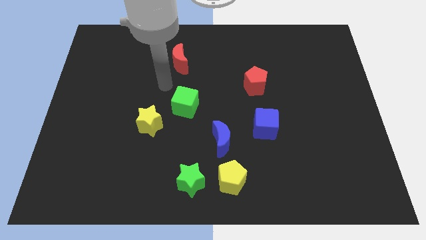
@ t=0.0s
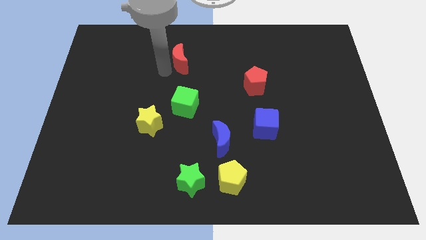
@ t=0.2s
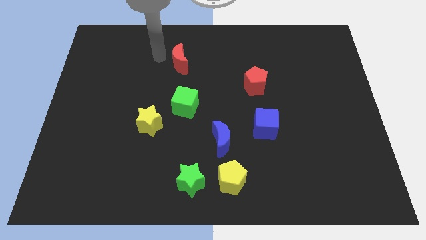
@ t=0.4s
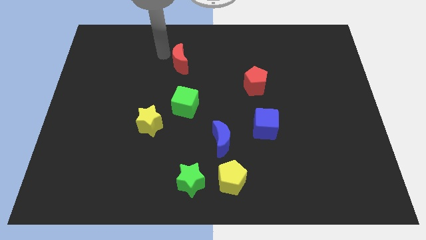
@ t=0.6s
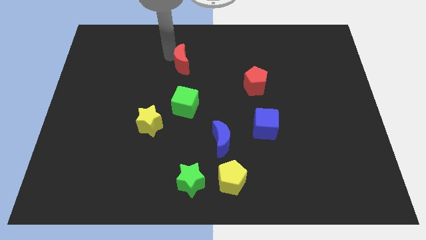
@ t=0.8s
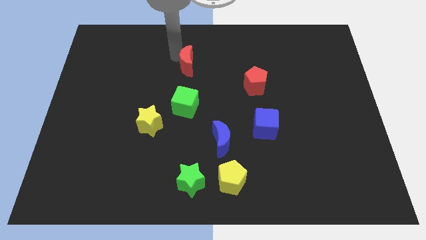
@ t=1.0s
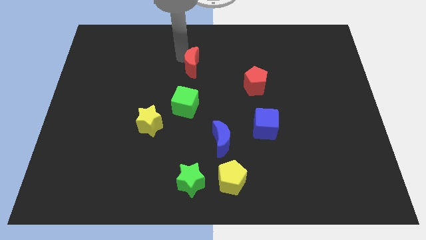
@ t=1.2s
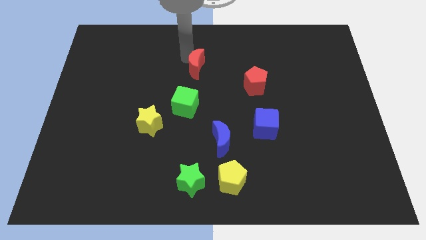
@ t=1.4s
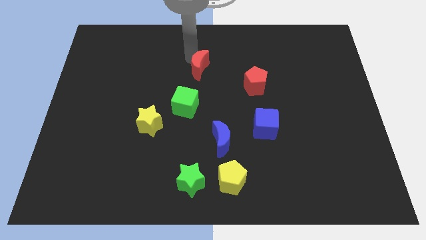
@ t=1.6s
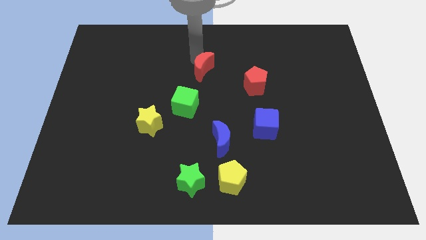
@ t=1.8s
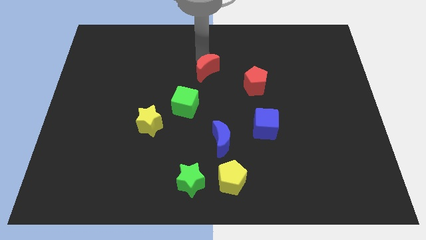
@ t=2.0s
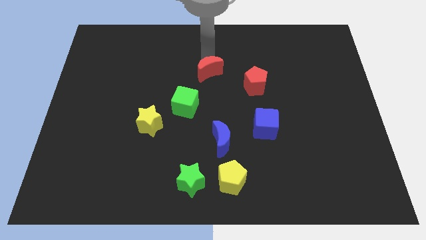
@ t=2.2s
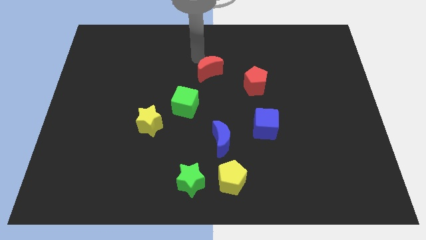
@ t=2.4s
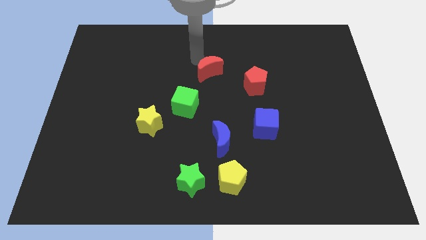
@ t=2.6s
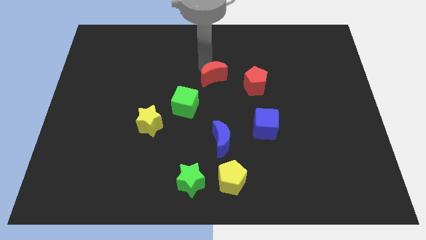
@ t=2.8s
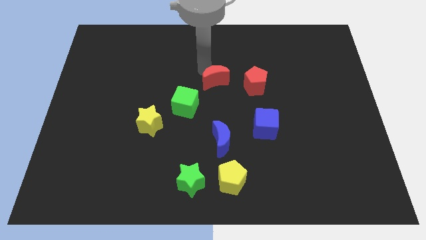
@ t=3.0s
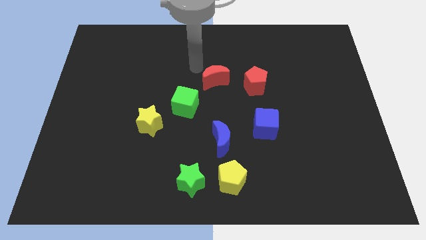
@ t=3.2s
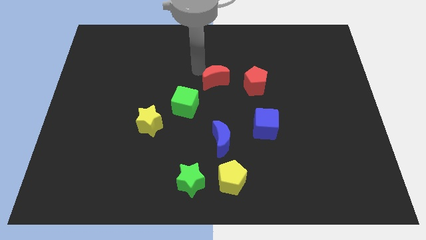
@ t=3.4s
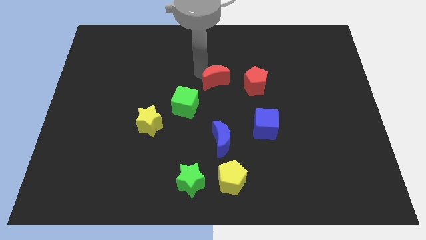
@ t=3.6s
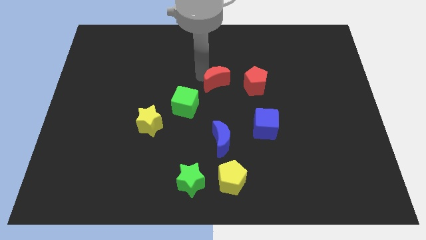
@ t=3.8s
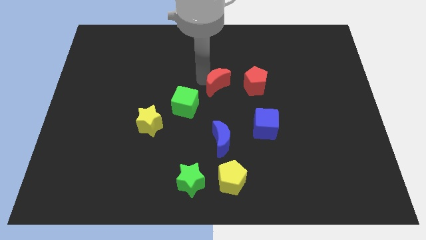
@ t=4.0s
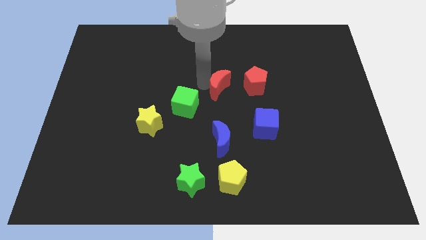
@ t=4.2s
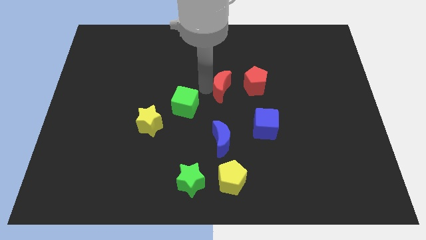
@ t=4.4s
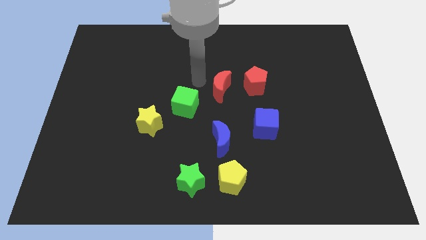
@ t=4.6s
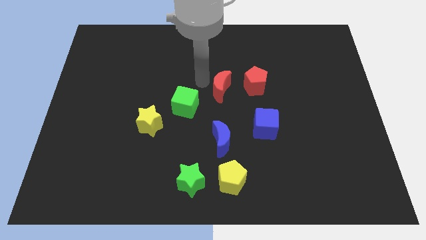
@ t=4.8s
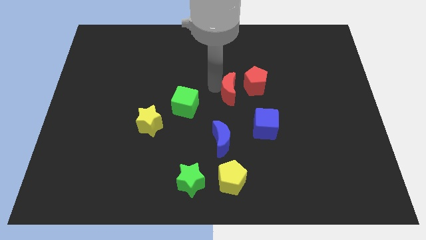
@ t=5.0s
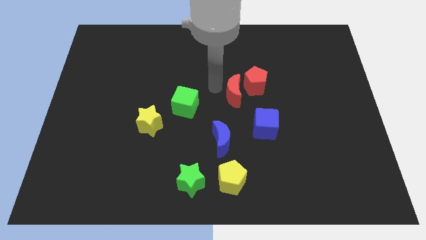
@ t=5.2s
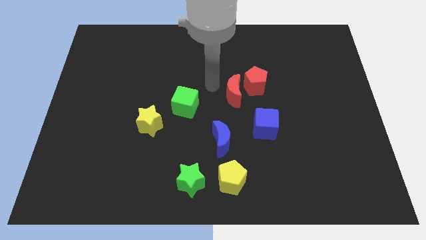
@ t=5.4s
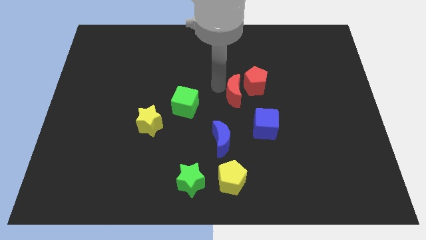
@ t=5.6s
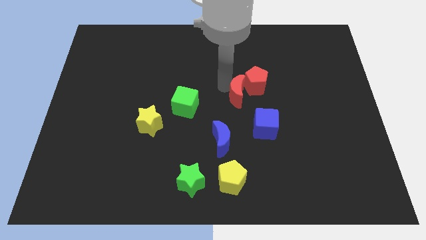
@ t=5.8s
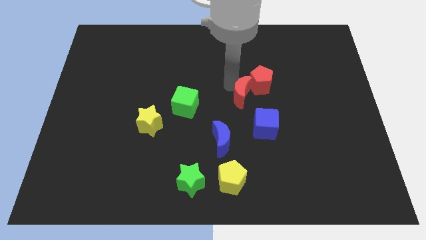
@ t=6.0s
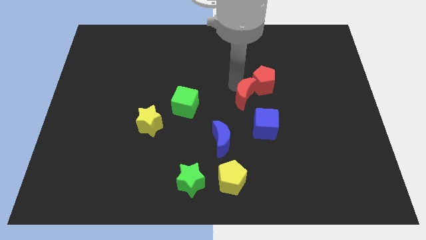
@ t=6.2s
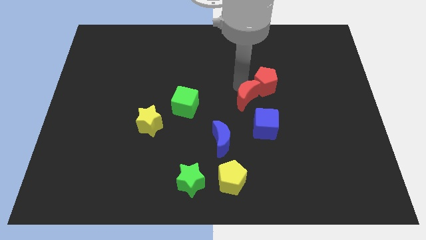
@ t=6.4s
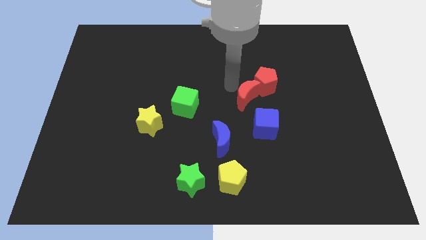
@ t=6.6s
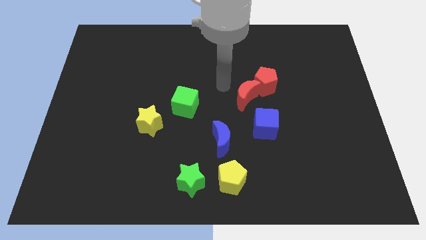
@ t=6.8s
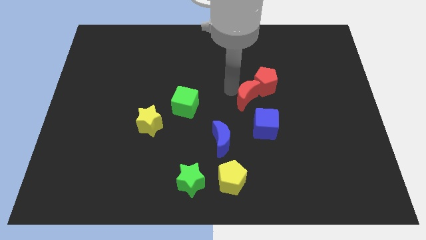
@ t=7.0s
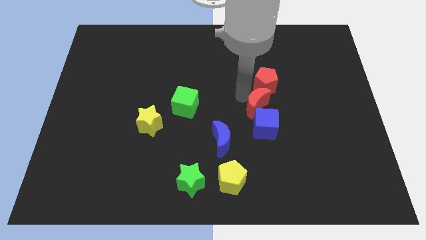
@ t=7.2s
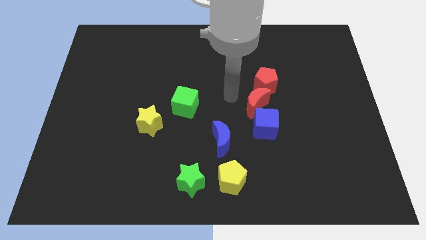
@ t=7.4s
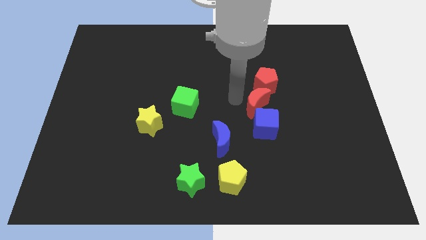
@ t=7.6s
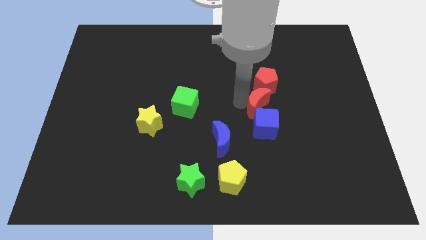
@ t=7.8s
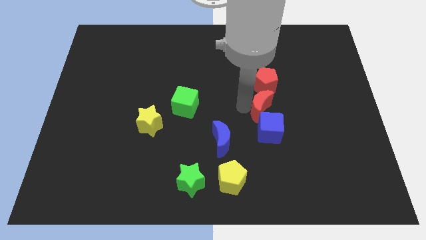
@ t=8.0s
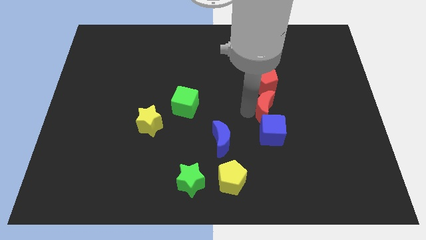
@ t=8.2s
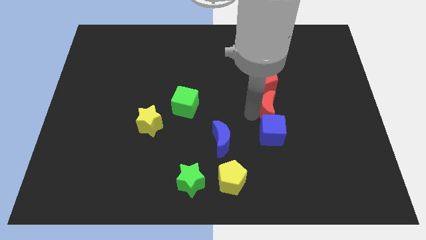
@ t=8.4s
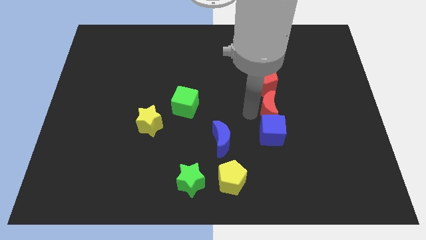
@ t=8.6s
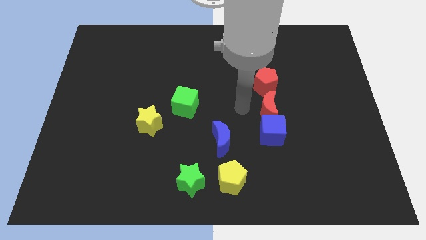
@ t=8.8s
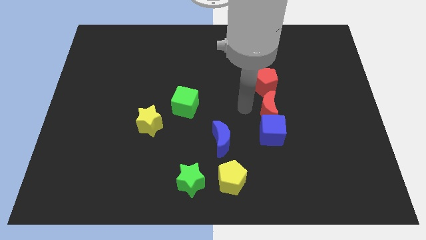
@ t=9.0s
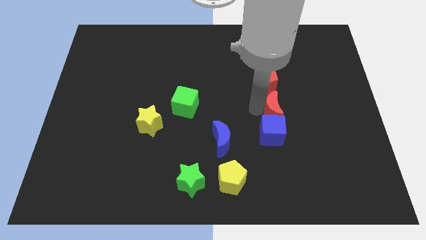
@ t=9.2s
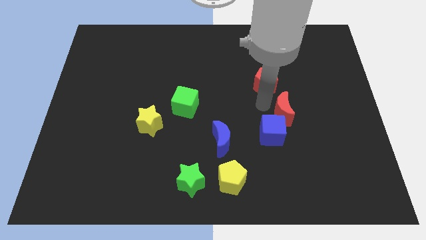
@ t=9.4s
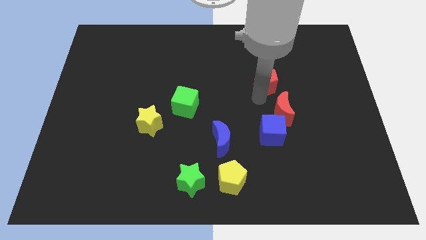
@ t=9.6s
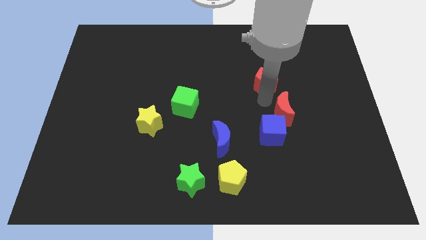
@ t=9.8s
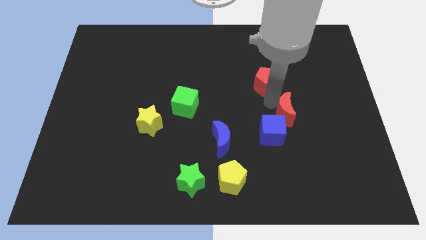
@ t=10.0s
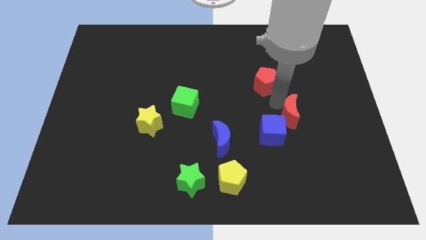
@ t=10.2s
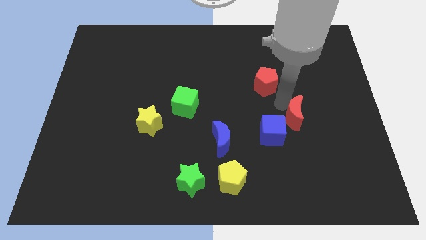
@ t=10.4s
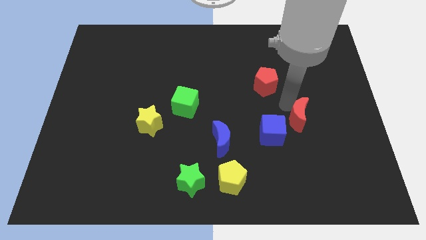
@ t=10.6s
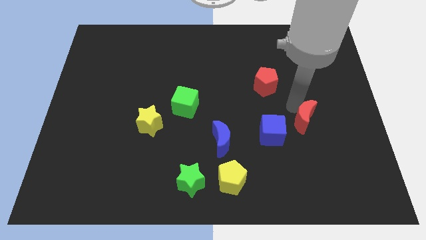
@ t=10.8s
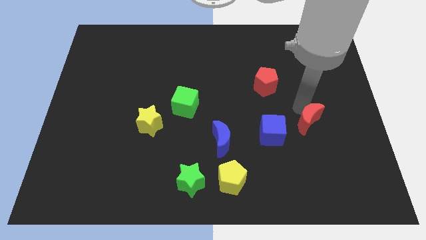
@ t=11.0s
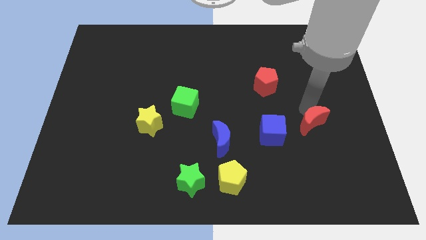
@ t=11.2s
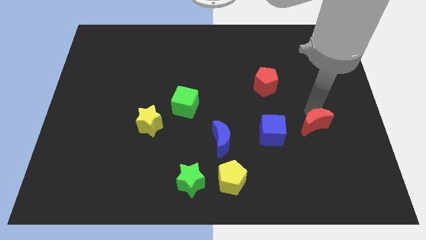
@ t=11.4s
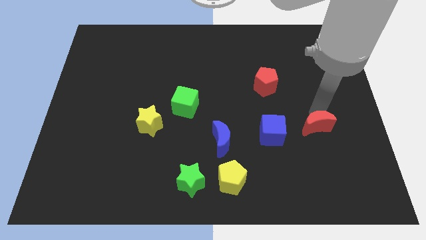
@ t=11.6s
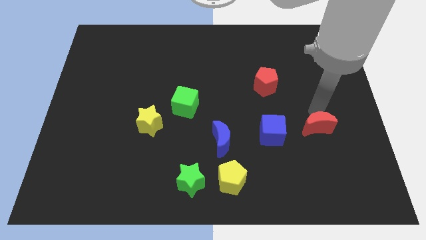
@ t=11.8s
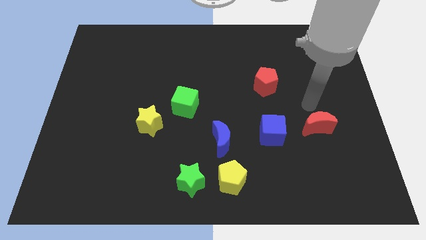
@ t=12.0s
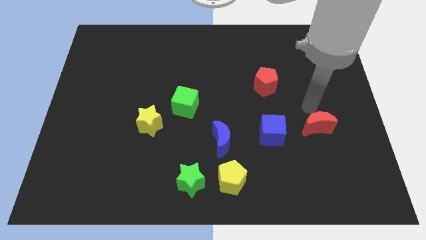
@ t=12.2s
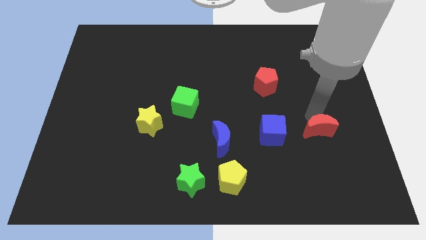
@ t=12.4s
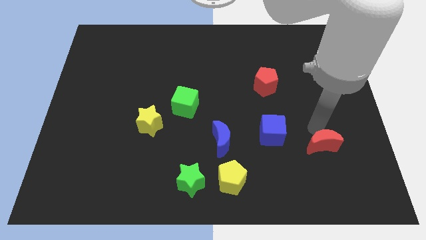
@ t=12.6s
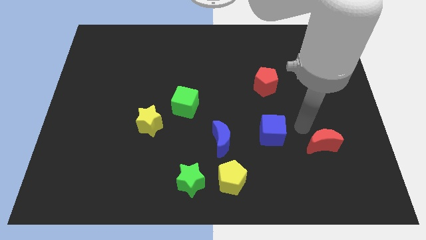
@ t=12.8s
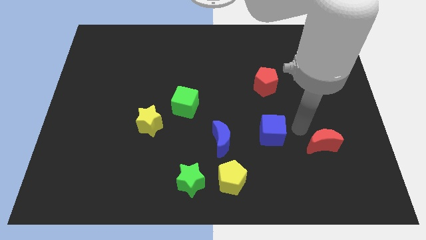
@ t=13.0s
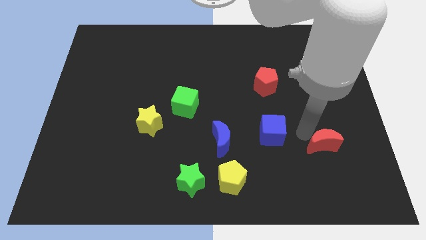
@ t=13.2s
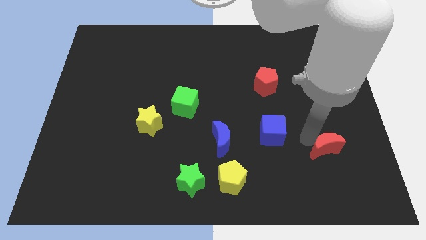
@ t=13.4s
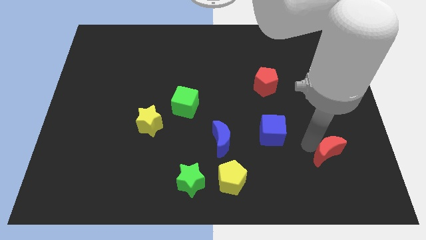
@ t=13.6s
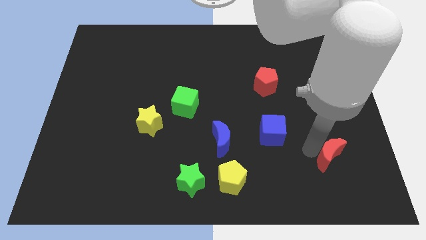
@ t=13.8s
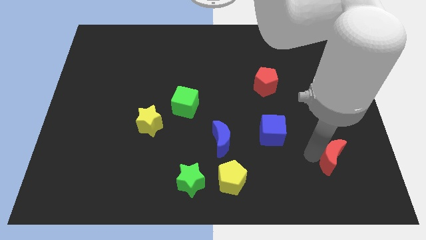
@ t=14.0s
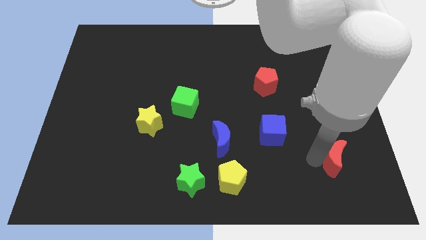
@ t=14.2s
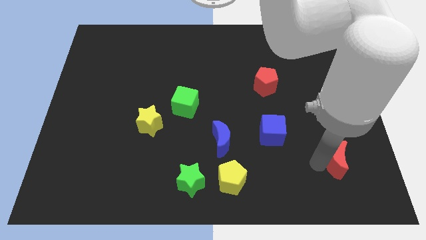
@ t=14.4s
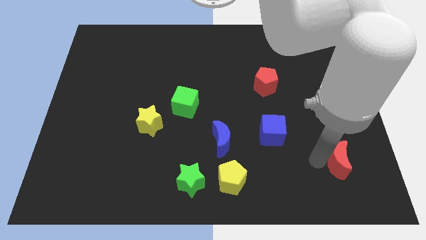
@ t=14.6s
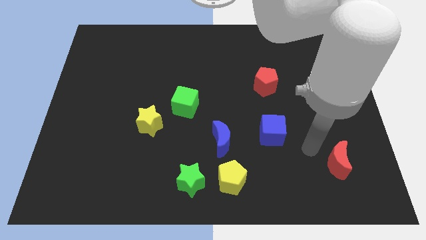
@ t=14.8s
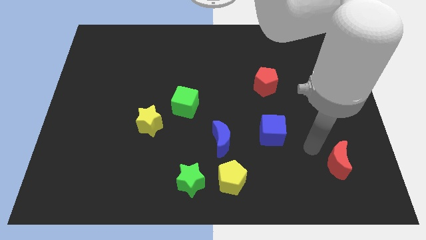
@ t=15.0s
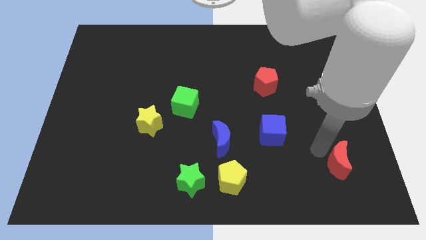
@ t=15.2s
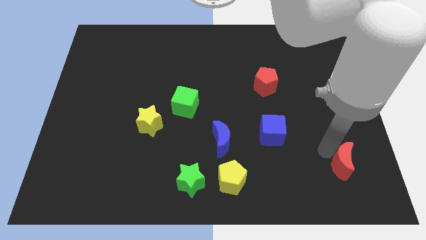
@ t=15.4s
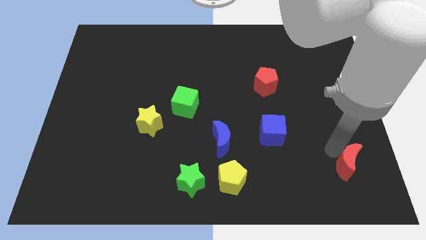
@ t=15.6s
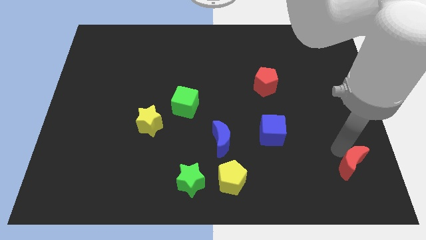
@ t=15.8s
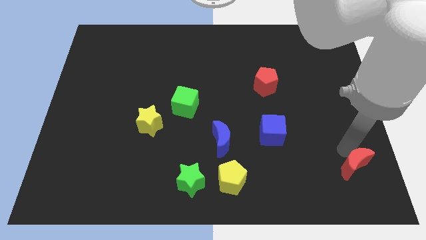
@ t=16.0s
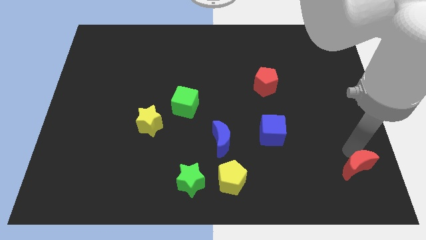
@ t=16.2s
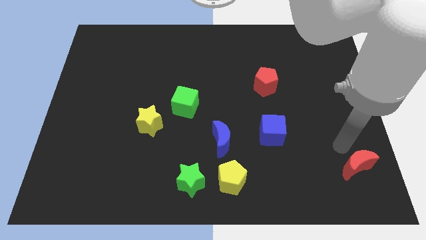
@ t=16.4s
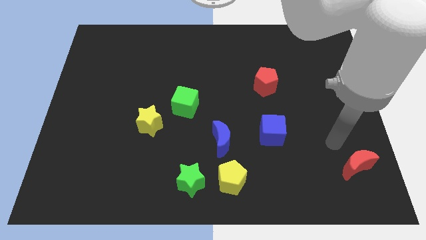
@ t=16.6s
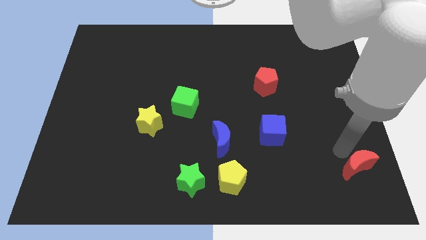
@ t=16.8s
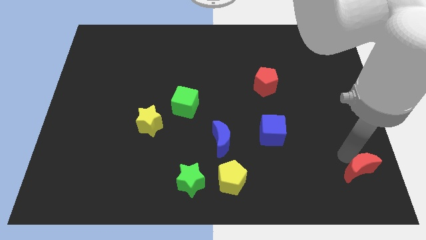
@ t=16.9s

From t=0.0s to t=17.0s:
push the red moon to the bottom right of the board
